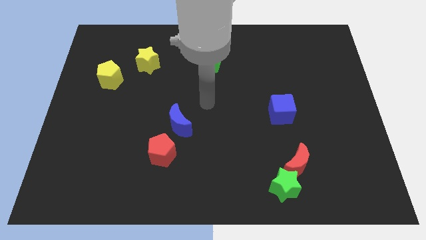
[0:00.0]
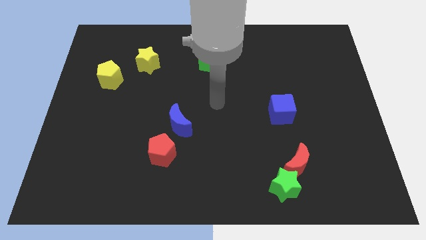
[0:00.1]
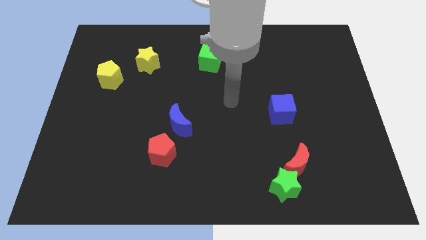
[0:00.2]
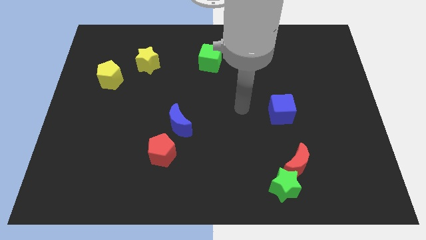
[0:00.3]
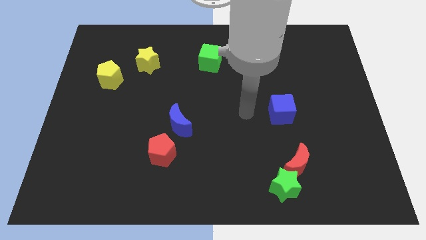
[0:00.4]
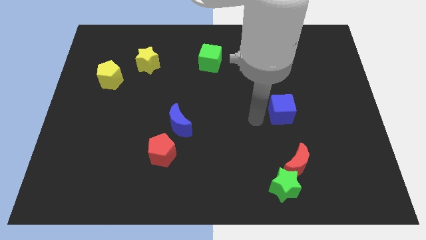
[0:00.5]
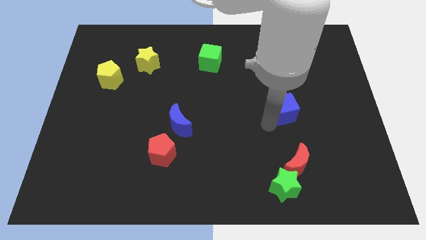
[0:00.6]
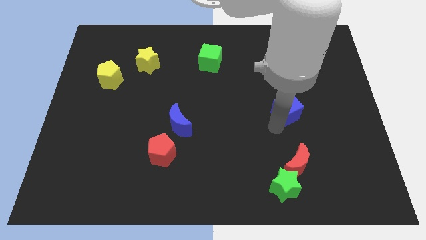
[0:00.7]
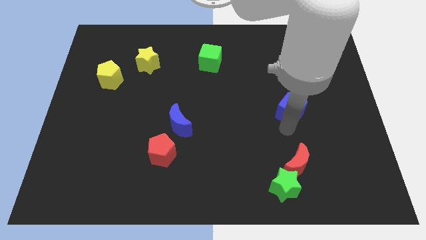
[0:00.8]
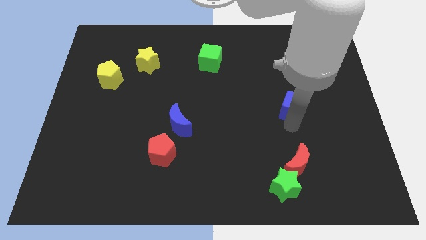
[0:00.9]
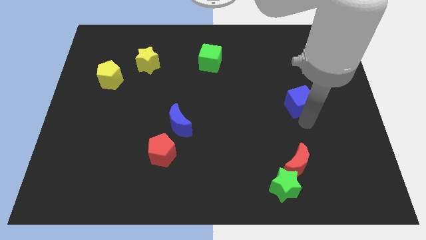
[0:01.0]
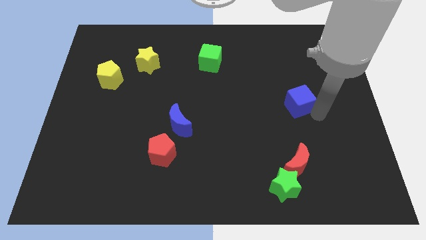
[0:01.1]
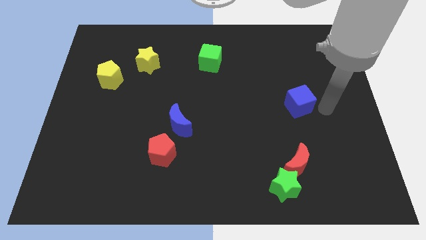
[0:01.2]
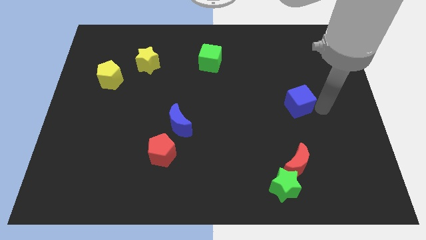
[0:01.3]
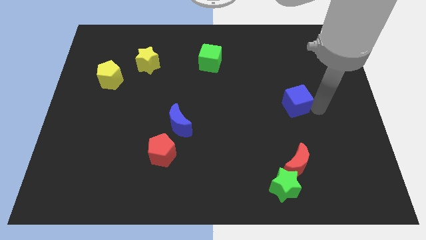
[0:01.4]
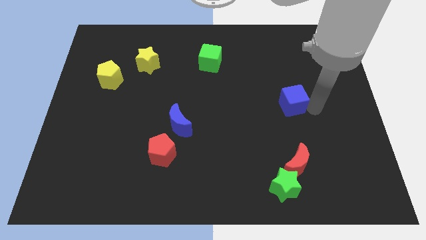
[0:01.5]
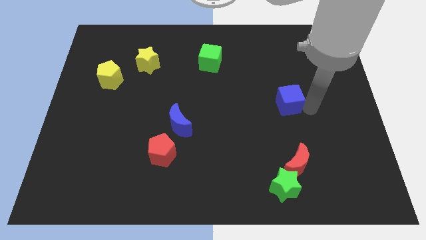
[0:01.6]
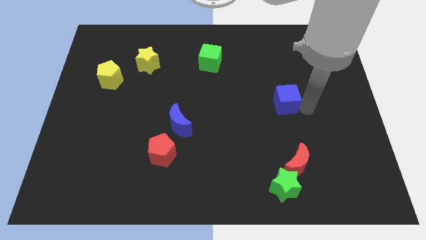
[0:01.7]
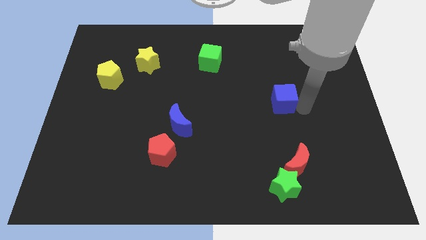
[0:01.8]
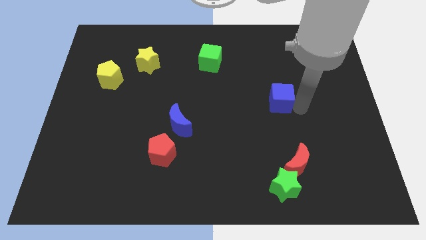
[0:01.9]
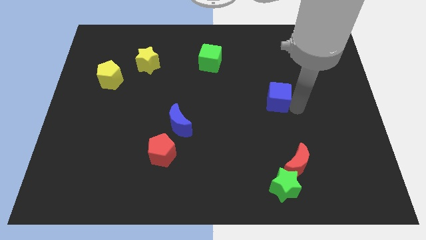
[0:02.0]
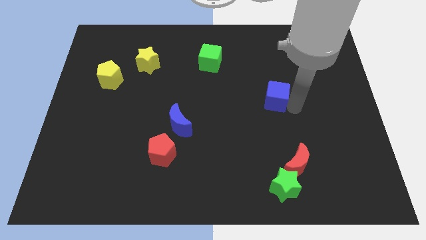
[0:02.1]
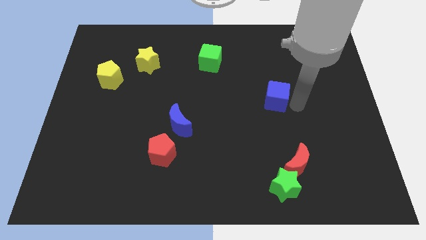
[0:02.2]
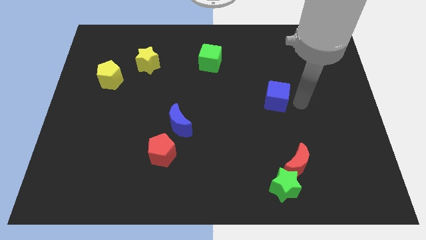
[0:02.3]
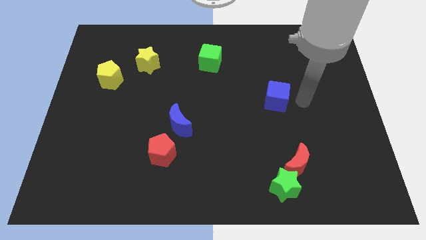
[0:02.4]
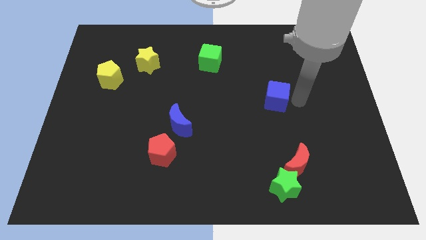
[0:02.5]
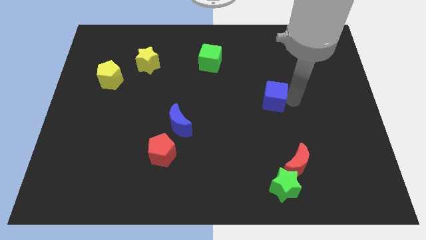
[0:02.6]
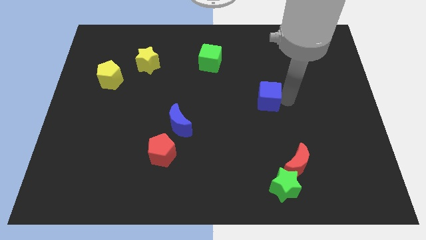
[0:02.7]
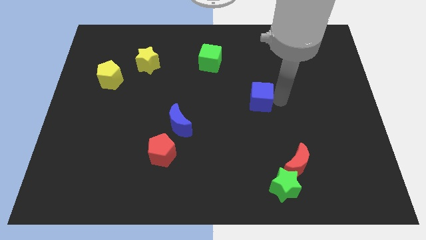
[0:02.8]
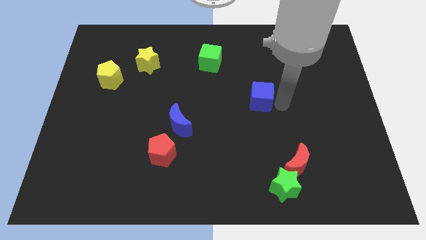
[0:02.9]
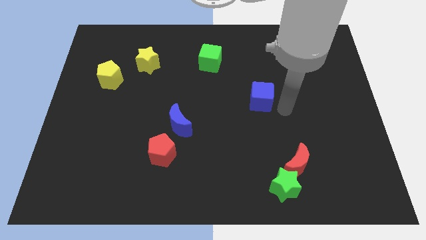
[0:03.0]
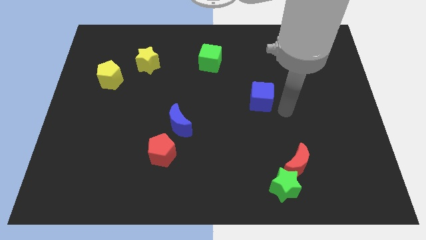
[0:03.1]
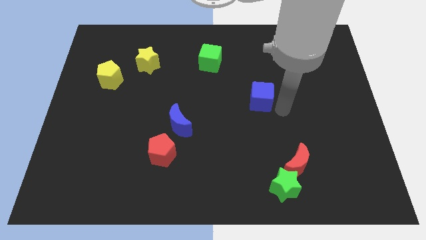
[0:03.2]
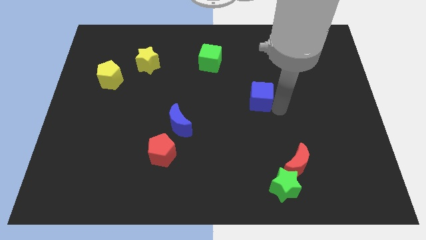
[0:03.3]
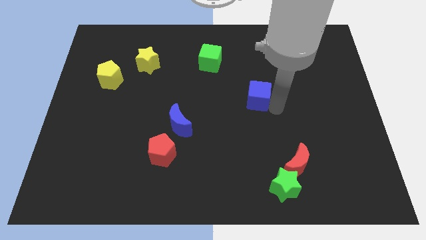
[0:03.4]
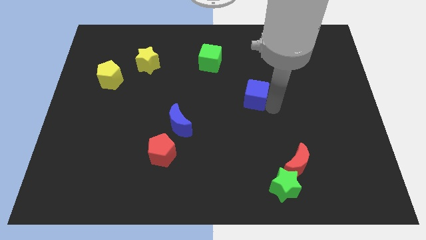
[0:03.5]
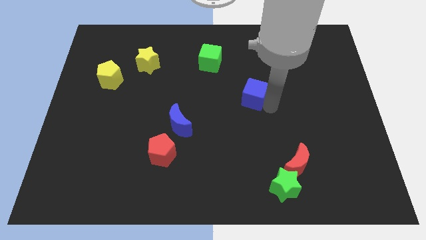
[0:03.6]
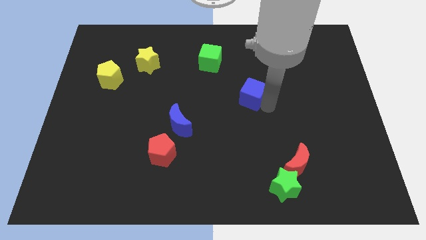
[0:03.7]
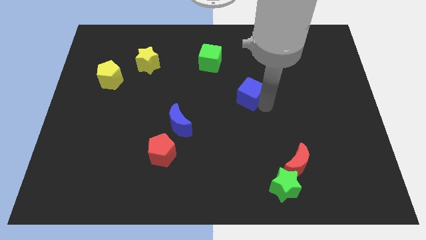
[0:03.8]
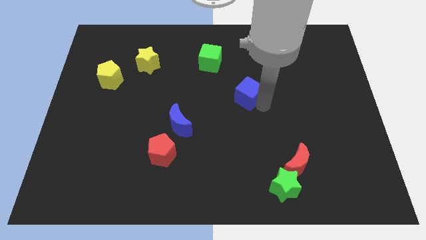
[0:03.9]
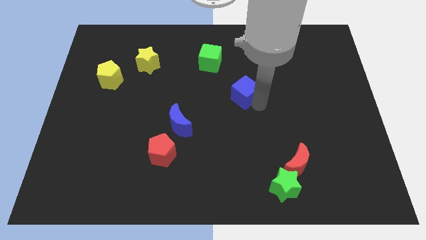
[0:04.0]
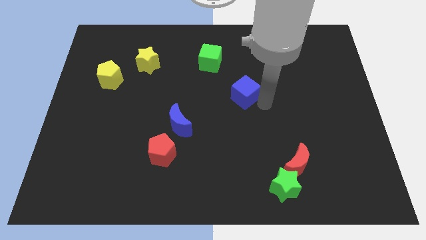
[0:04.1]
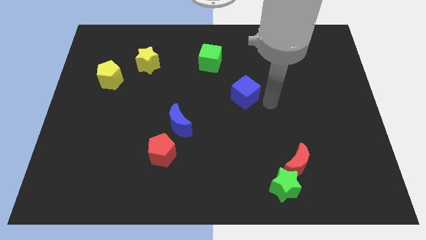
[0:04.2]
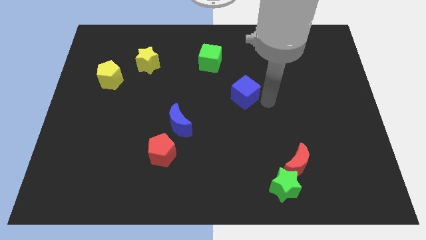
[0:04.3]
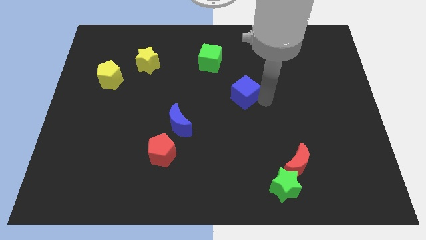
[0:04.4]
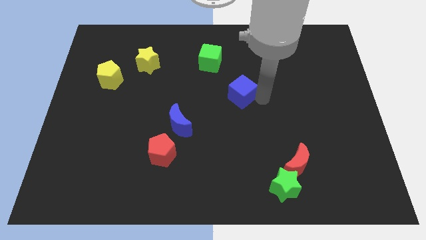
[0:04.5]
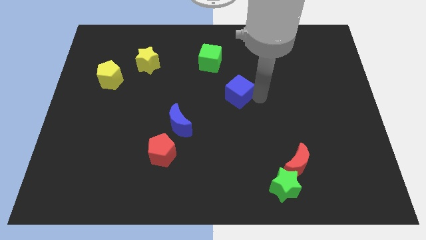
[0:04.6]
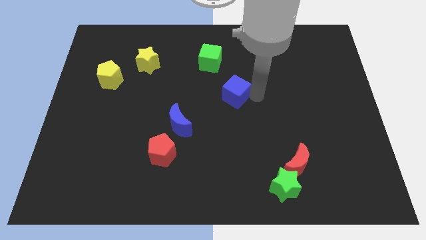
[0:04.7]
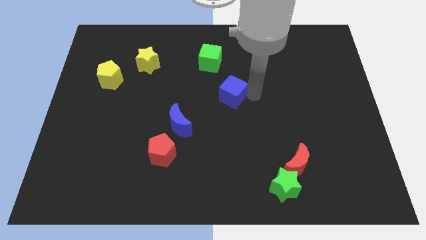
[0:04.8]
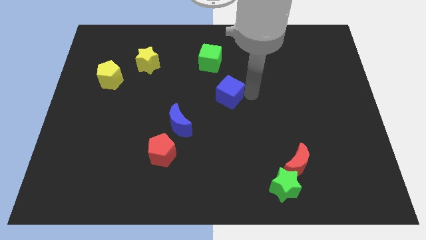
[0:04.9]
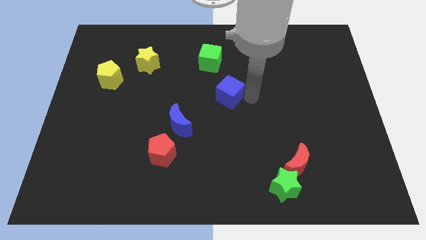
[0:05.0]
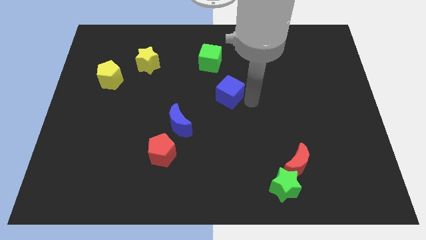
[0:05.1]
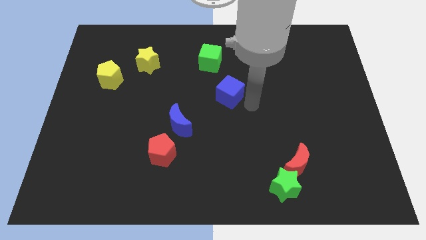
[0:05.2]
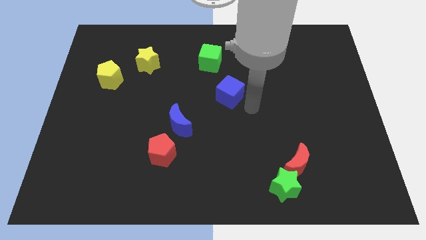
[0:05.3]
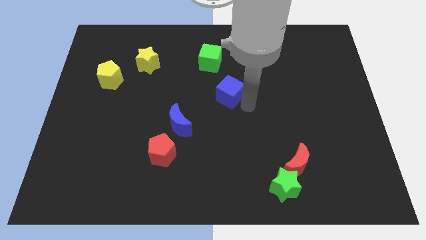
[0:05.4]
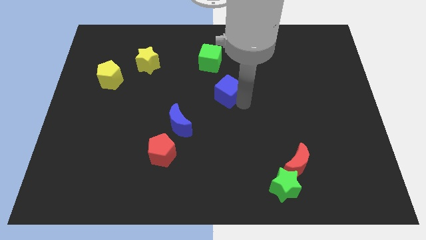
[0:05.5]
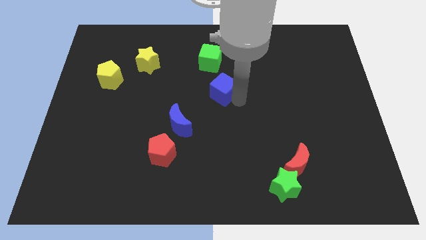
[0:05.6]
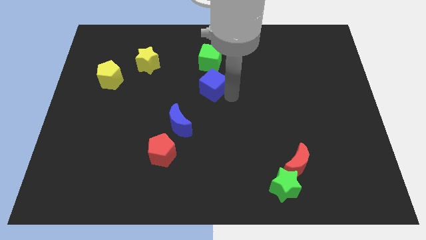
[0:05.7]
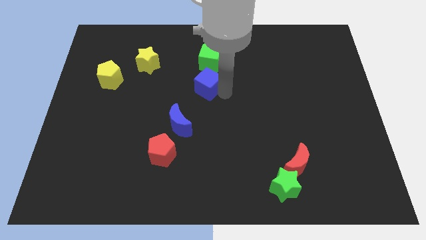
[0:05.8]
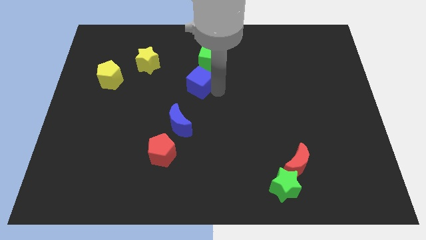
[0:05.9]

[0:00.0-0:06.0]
put the blue cube diagonally down and to the left of the green cube

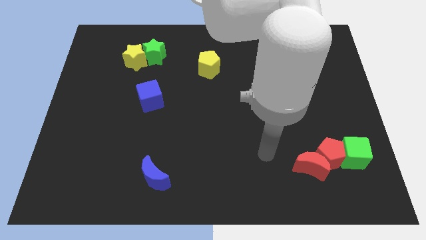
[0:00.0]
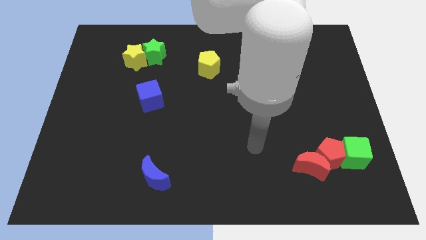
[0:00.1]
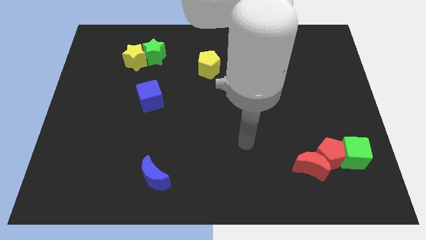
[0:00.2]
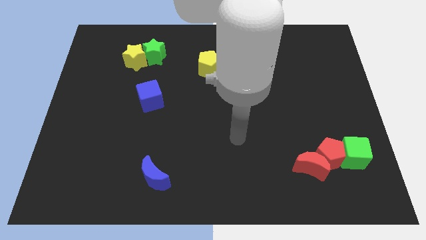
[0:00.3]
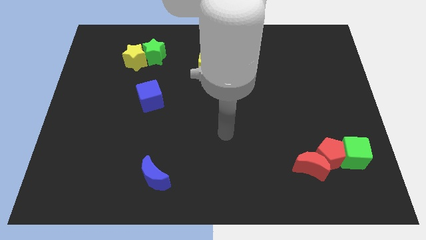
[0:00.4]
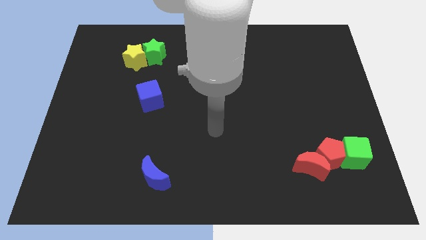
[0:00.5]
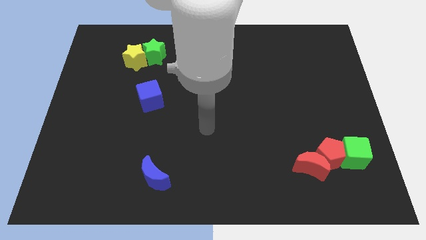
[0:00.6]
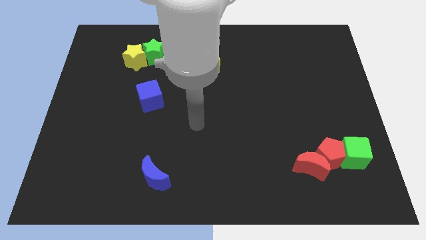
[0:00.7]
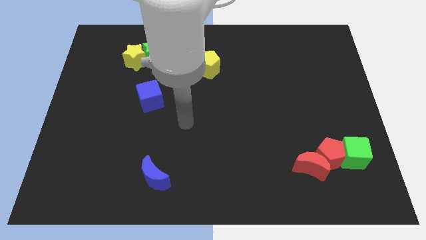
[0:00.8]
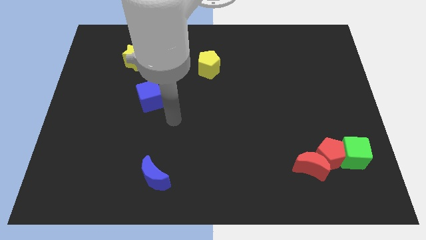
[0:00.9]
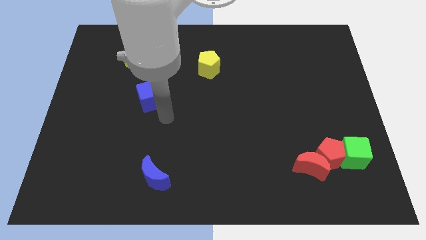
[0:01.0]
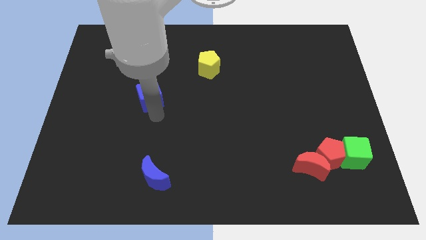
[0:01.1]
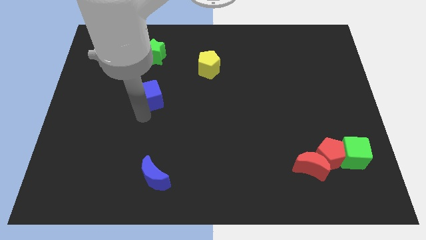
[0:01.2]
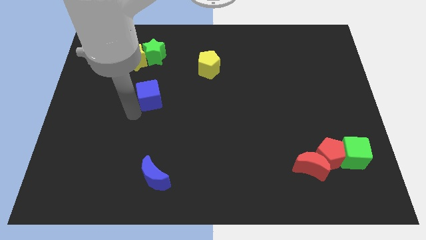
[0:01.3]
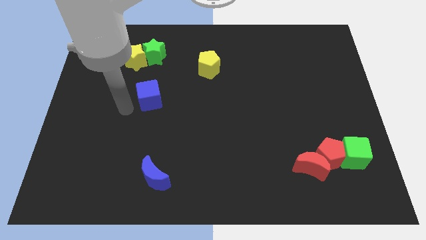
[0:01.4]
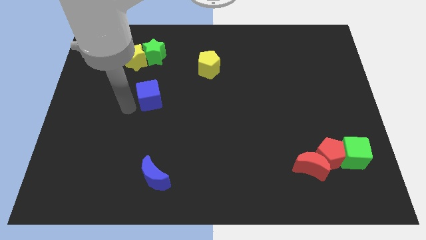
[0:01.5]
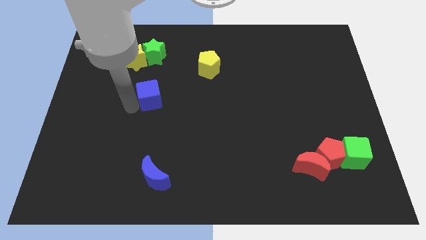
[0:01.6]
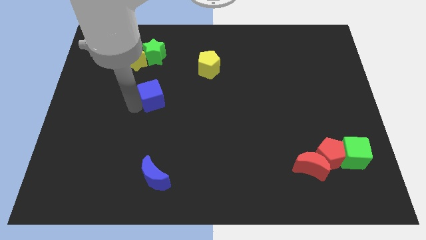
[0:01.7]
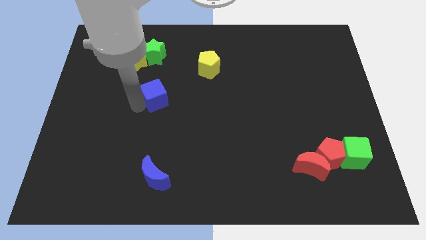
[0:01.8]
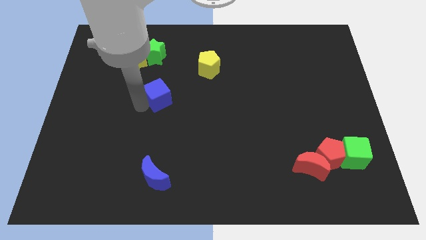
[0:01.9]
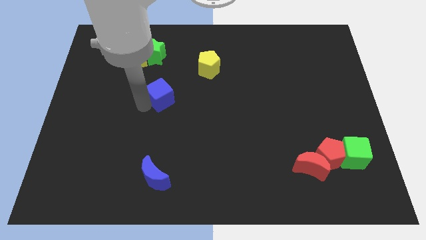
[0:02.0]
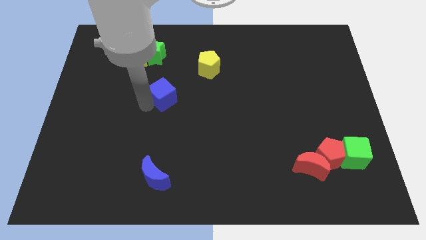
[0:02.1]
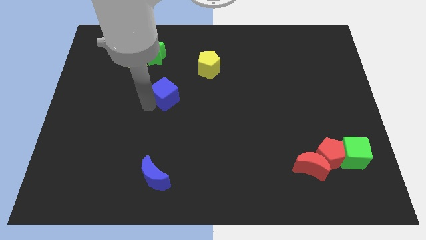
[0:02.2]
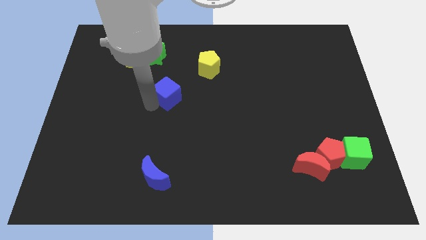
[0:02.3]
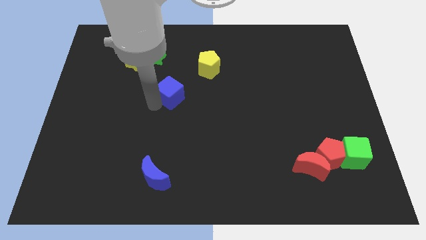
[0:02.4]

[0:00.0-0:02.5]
put the blue cube diagonally down and to the left of the yellow pentagon
